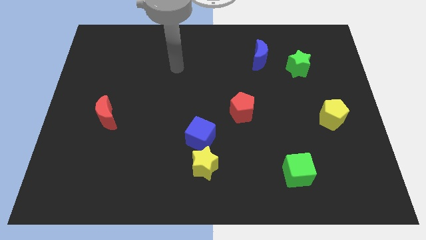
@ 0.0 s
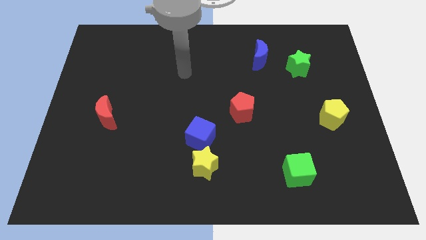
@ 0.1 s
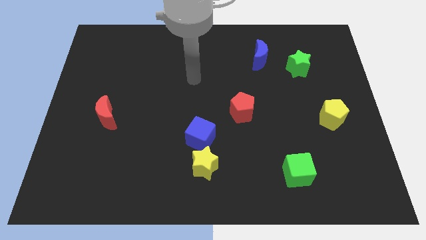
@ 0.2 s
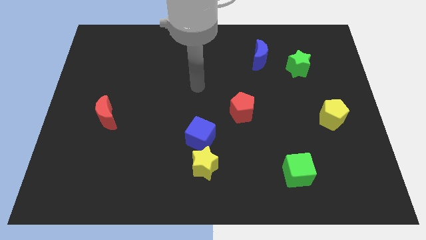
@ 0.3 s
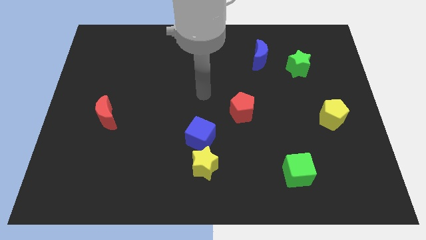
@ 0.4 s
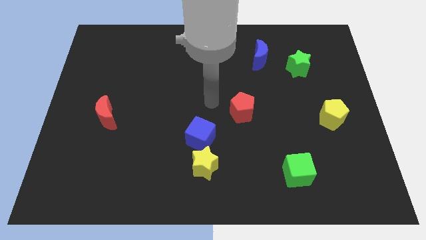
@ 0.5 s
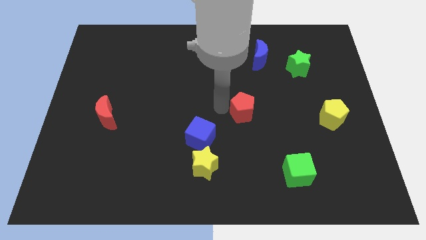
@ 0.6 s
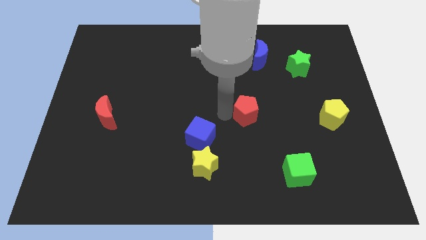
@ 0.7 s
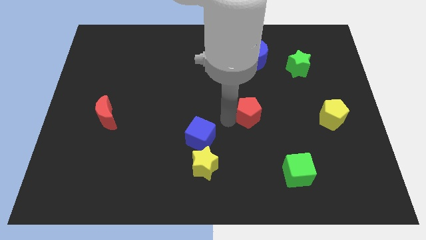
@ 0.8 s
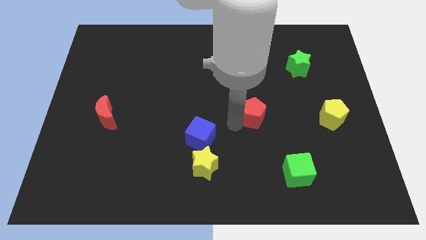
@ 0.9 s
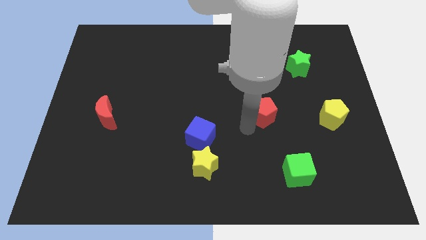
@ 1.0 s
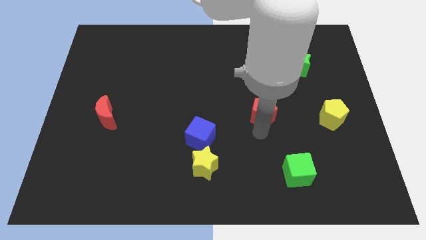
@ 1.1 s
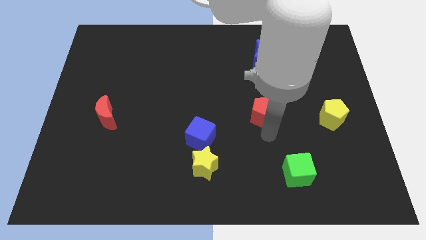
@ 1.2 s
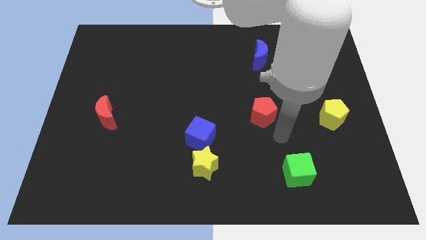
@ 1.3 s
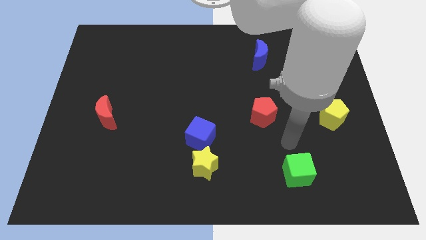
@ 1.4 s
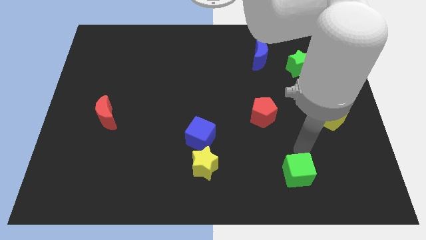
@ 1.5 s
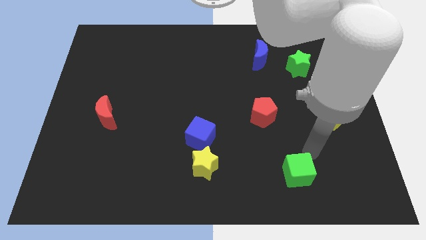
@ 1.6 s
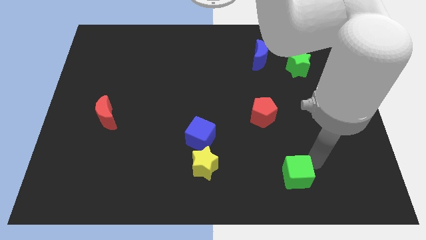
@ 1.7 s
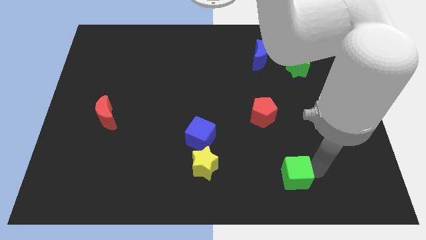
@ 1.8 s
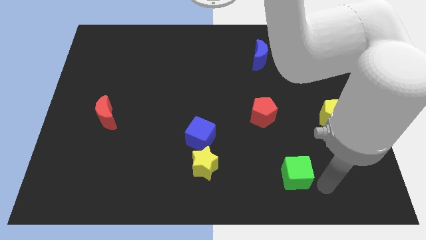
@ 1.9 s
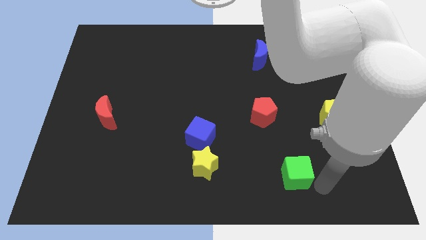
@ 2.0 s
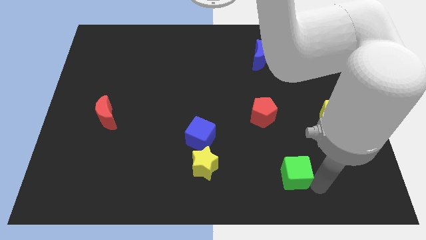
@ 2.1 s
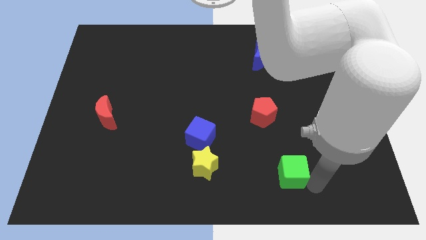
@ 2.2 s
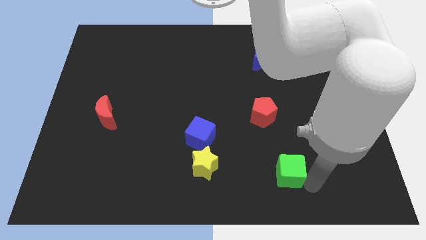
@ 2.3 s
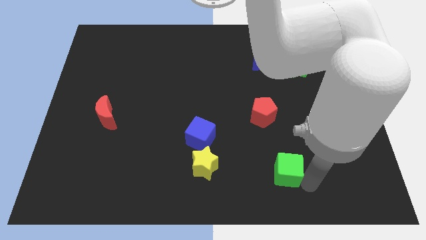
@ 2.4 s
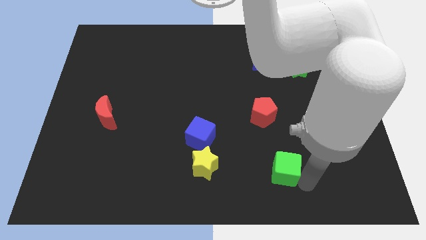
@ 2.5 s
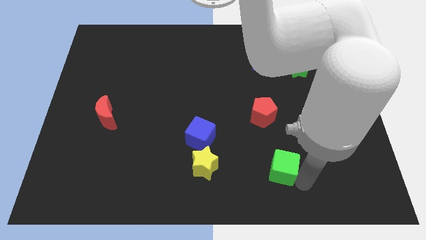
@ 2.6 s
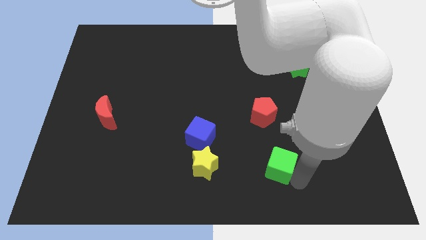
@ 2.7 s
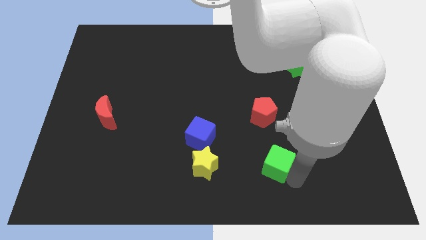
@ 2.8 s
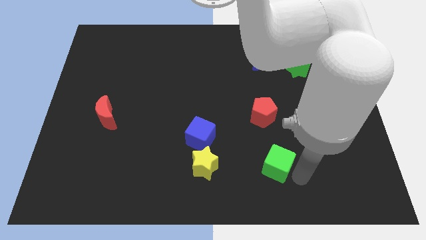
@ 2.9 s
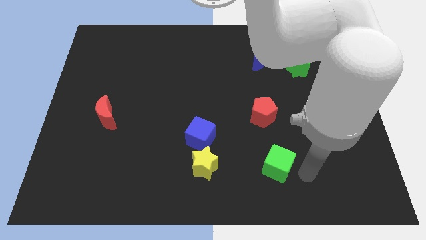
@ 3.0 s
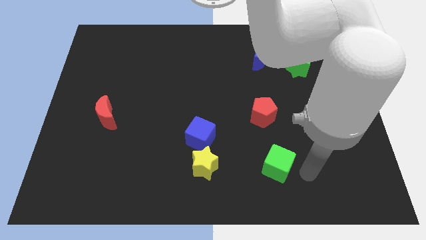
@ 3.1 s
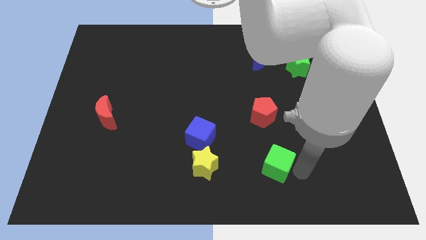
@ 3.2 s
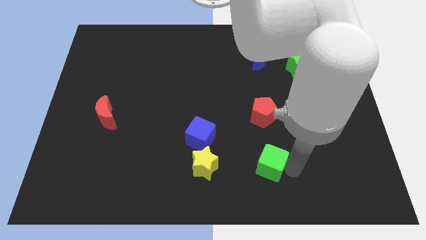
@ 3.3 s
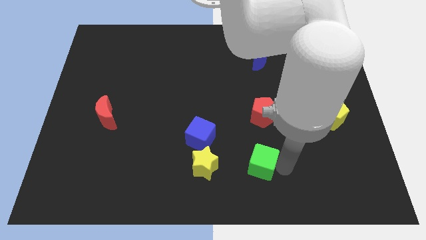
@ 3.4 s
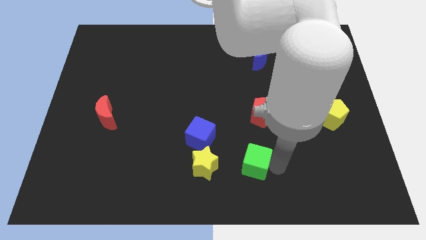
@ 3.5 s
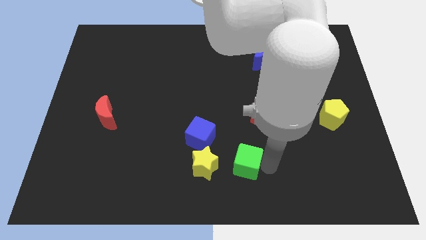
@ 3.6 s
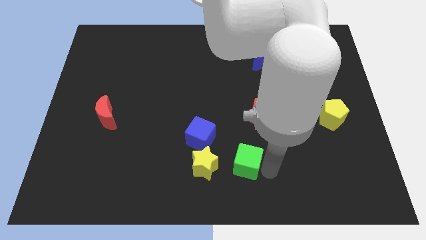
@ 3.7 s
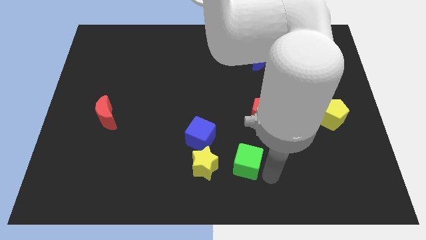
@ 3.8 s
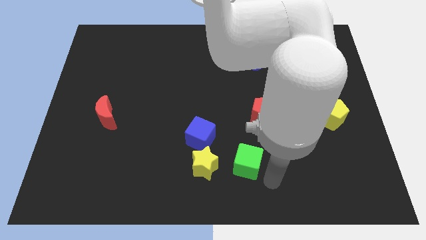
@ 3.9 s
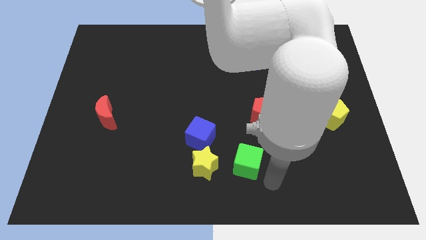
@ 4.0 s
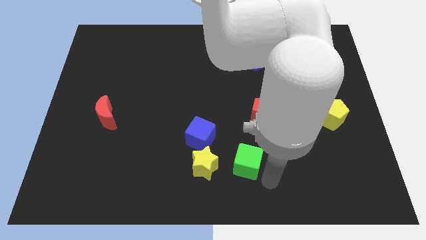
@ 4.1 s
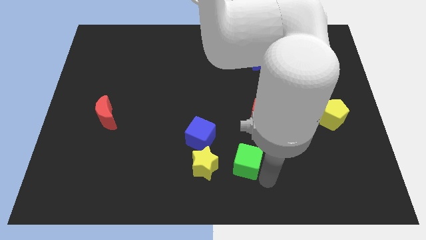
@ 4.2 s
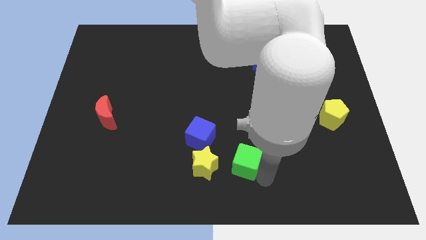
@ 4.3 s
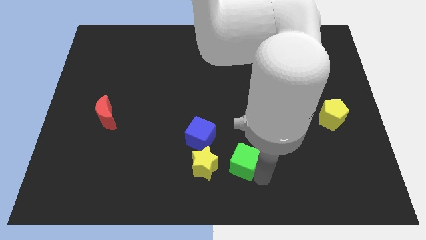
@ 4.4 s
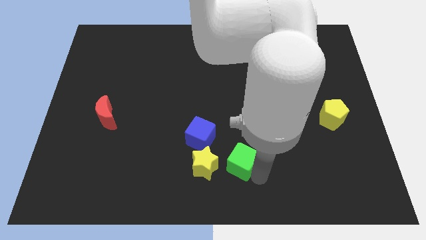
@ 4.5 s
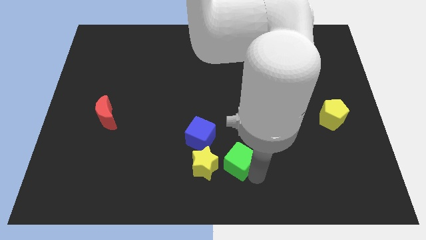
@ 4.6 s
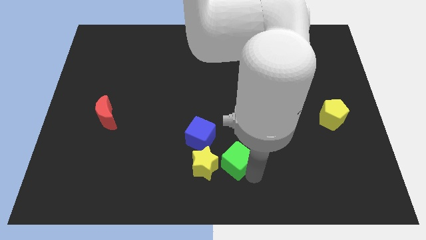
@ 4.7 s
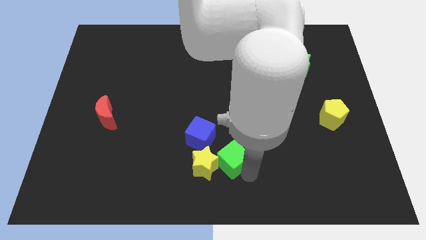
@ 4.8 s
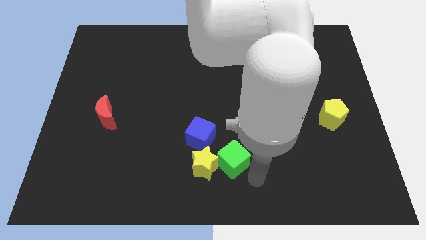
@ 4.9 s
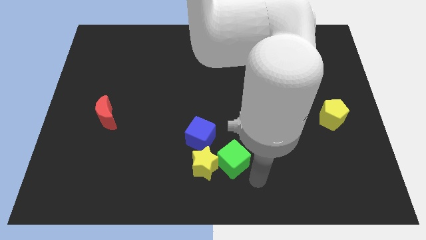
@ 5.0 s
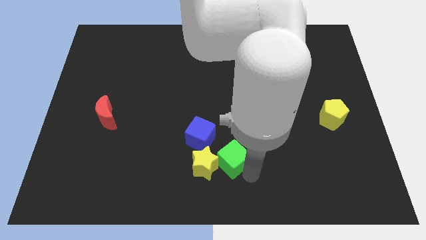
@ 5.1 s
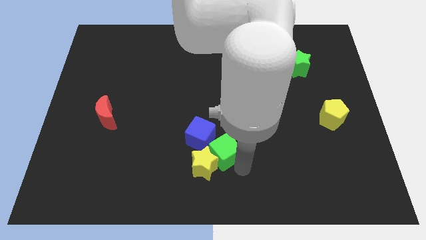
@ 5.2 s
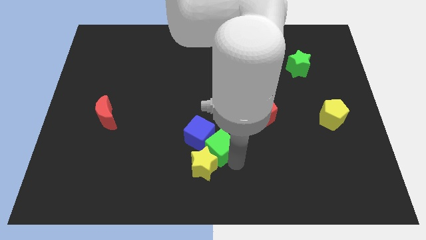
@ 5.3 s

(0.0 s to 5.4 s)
push the green cube close to the blue cube

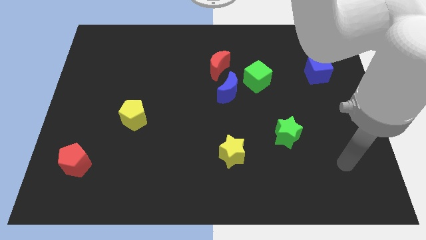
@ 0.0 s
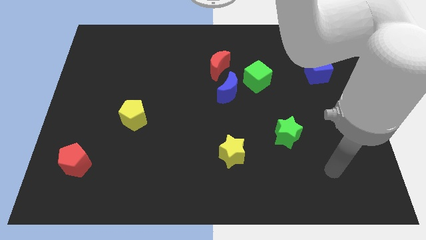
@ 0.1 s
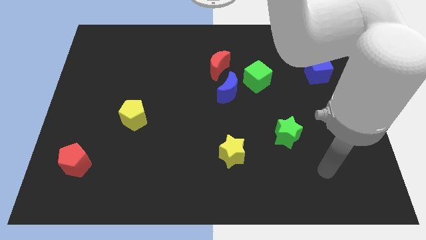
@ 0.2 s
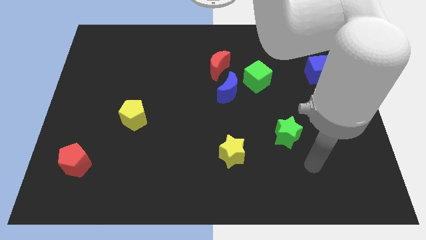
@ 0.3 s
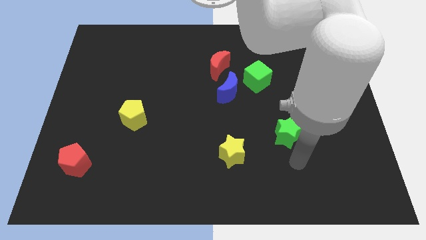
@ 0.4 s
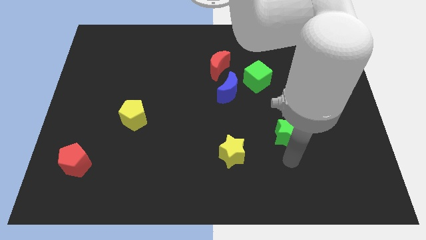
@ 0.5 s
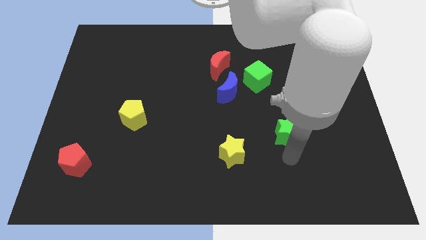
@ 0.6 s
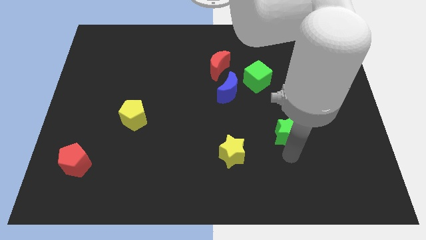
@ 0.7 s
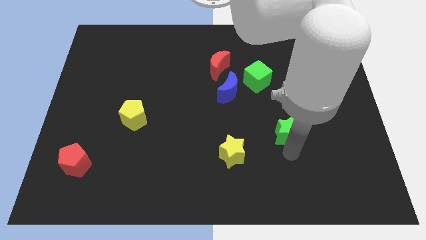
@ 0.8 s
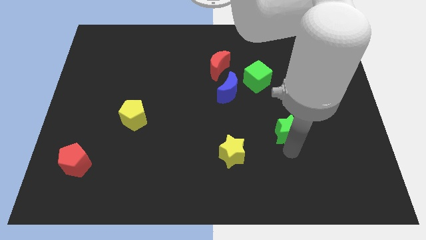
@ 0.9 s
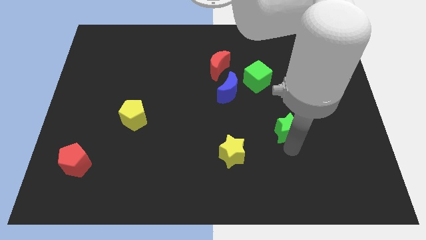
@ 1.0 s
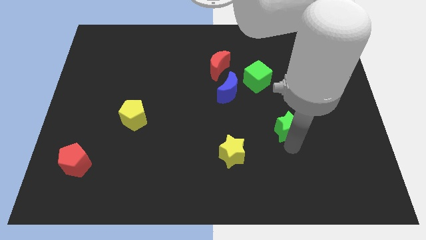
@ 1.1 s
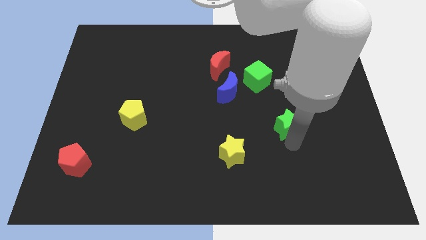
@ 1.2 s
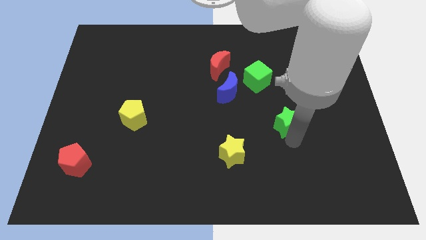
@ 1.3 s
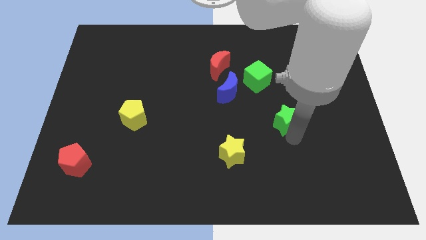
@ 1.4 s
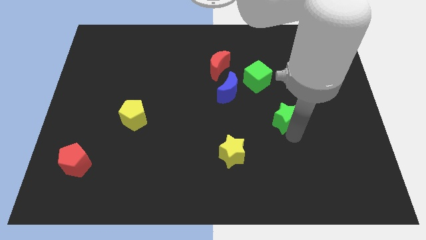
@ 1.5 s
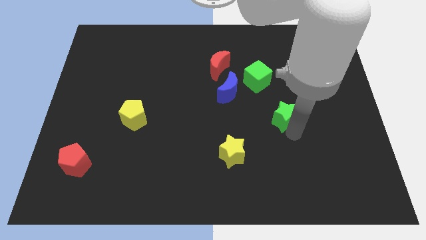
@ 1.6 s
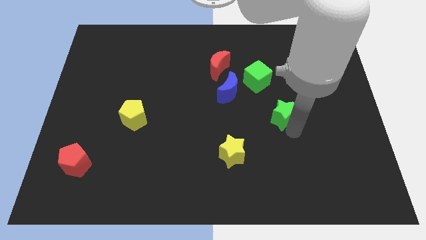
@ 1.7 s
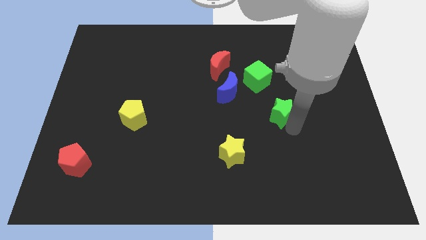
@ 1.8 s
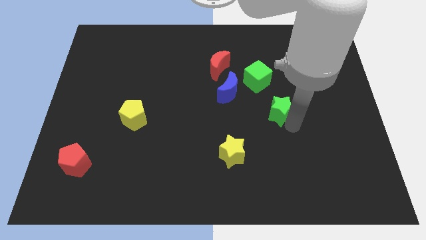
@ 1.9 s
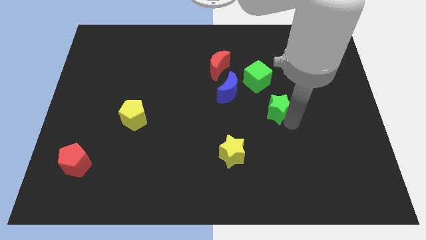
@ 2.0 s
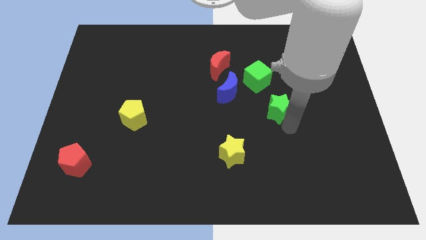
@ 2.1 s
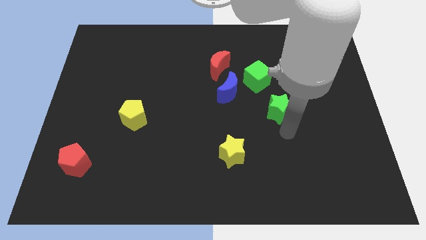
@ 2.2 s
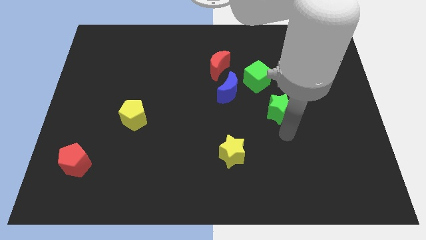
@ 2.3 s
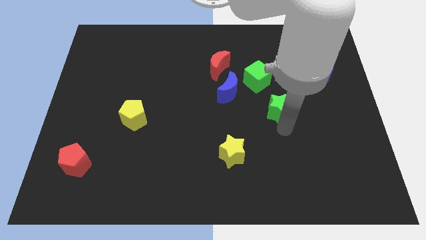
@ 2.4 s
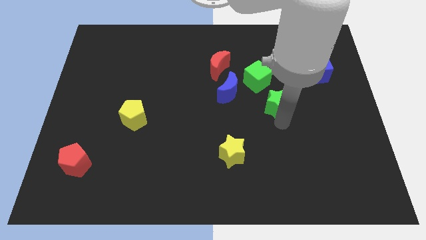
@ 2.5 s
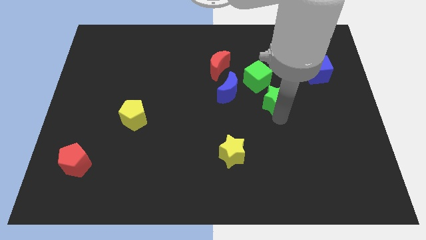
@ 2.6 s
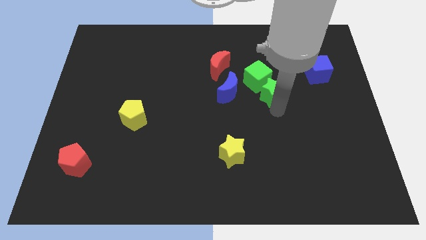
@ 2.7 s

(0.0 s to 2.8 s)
push the green star next to the green cube
